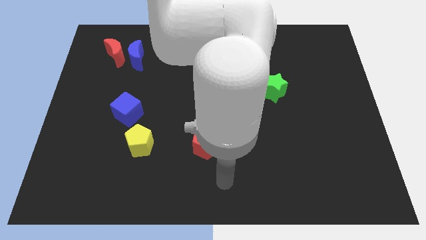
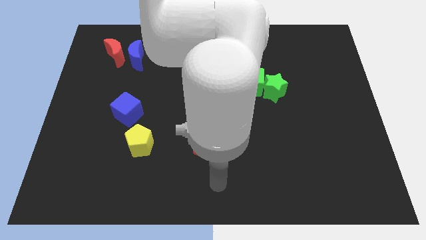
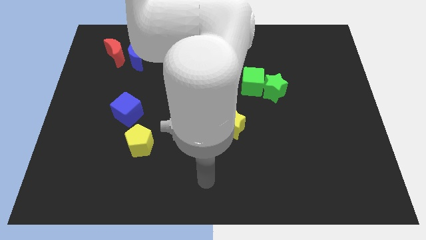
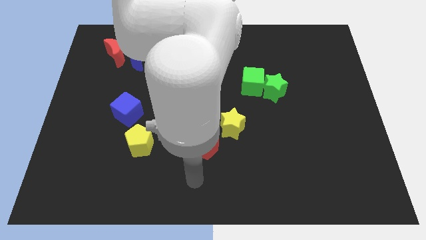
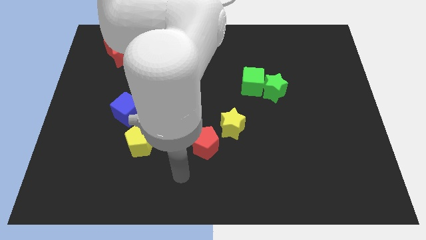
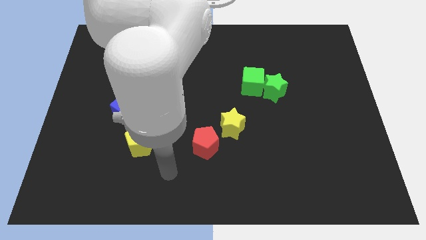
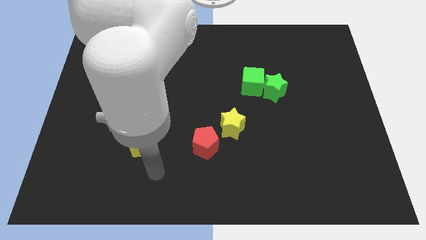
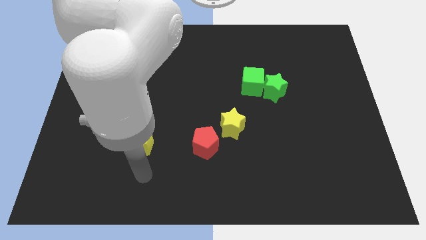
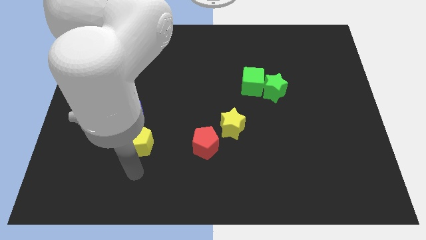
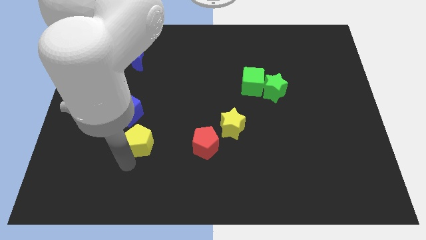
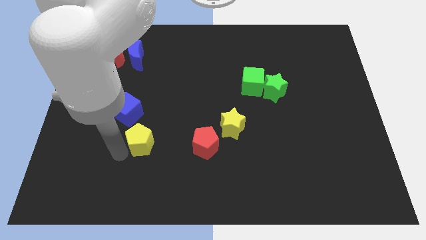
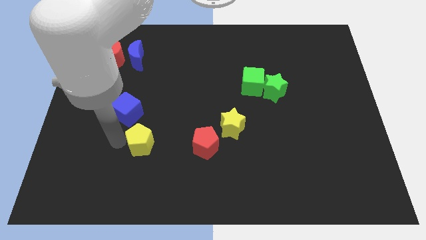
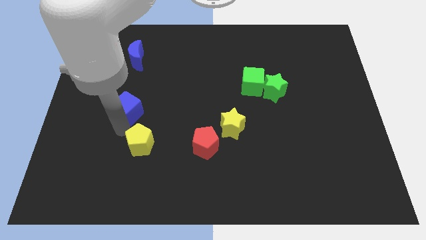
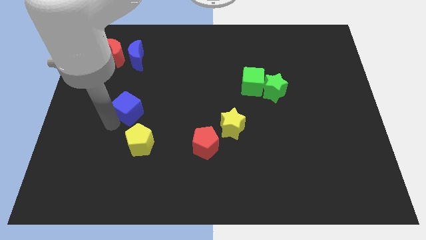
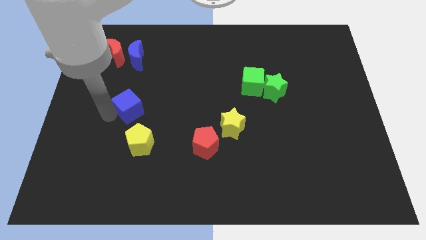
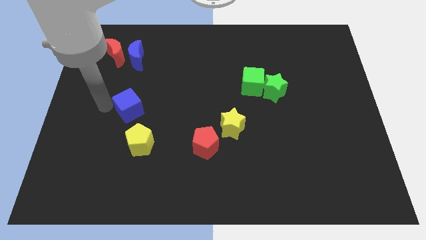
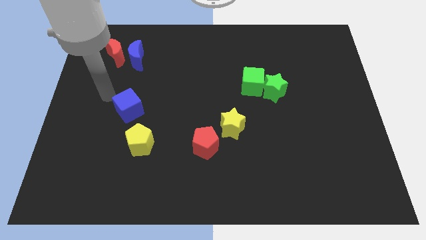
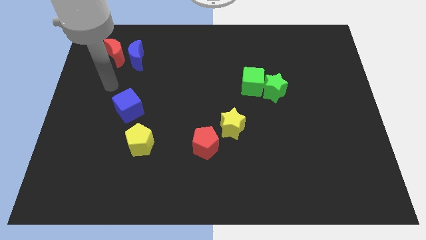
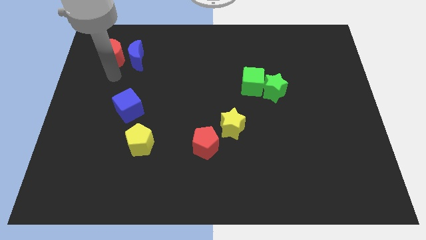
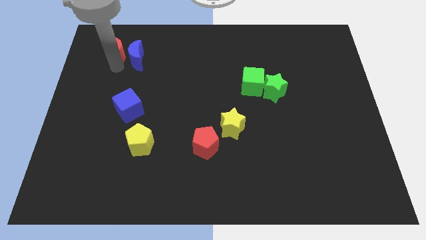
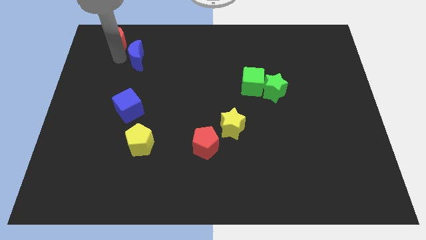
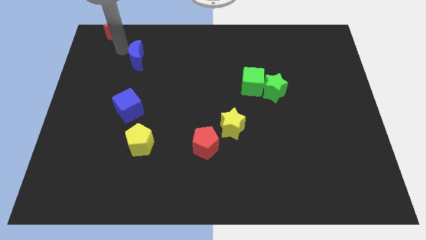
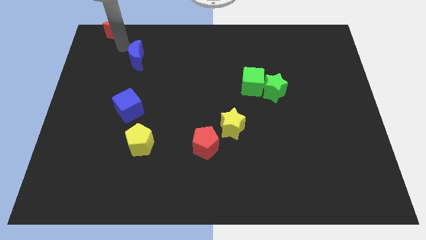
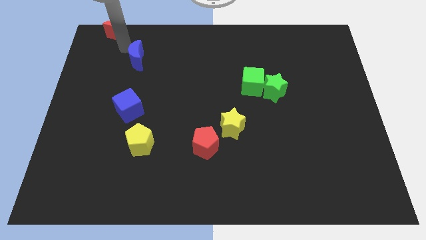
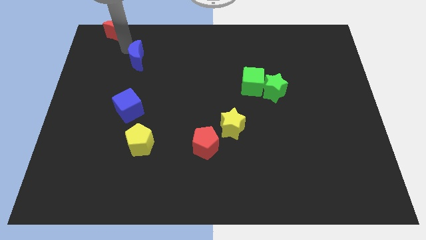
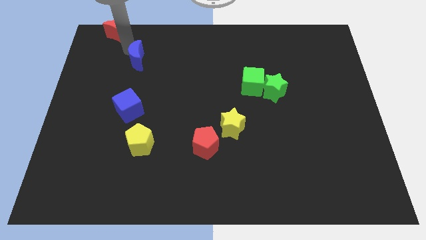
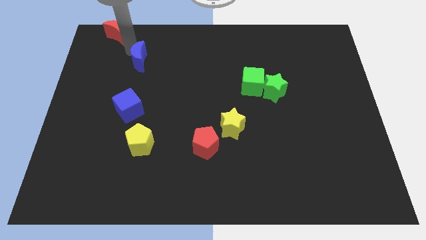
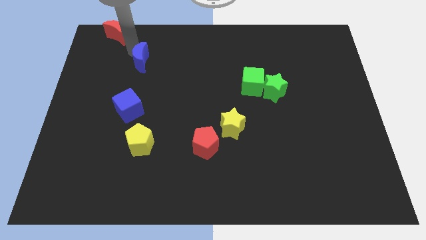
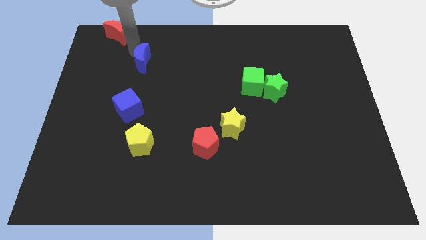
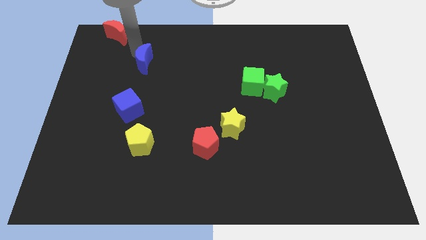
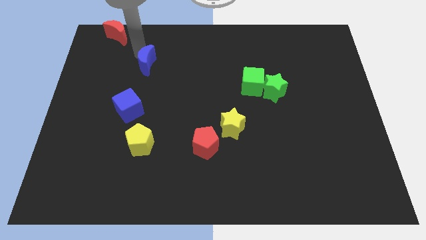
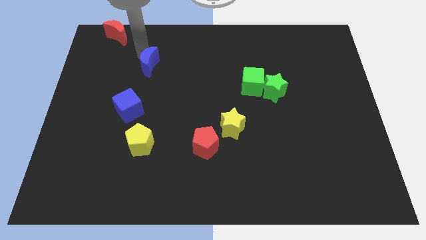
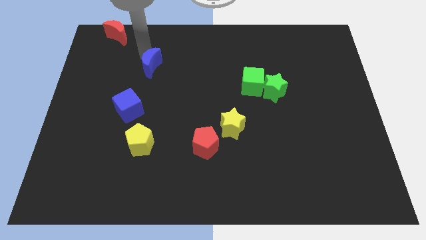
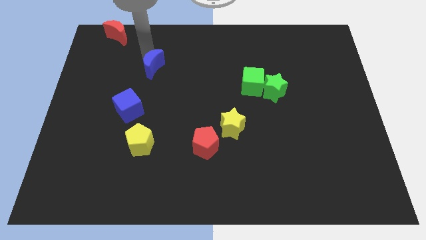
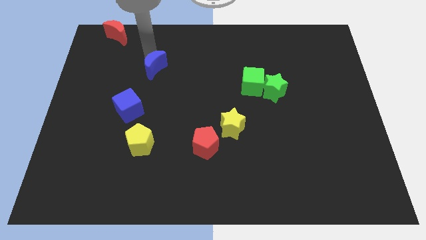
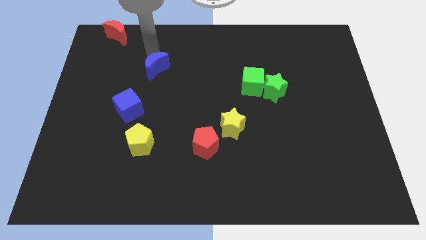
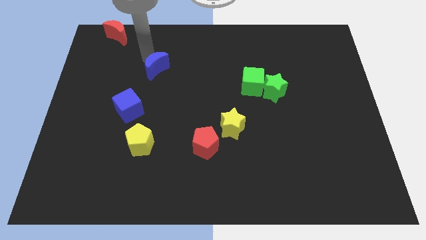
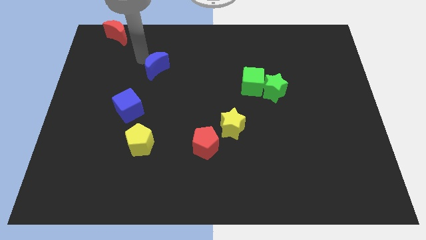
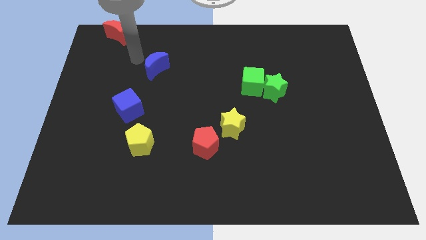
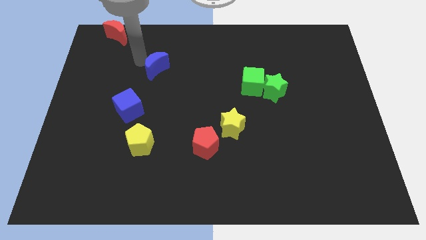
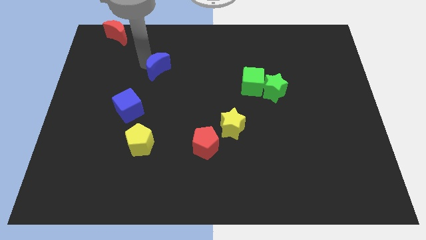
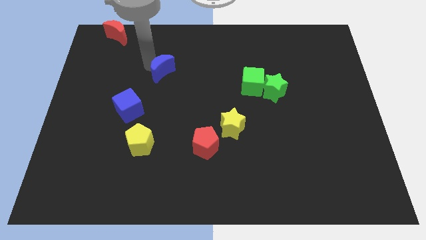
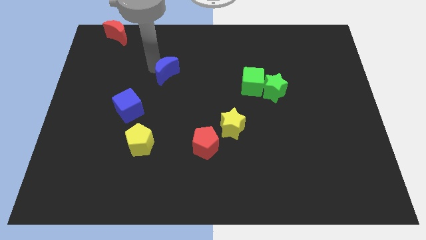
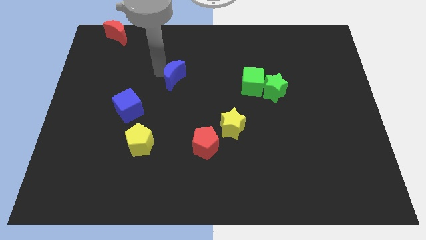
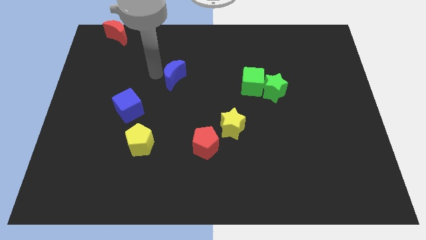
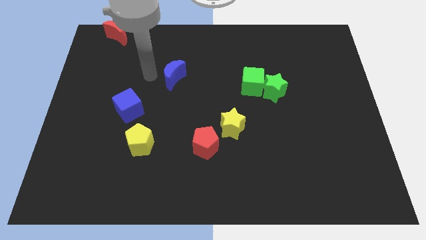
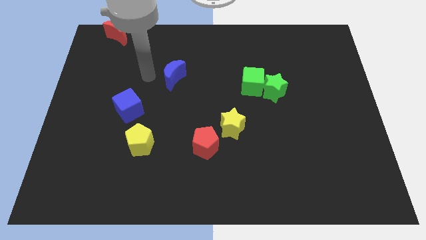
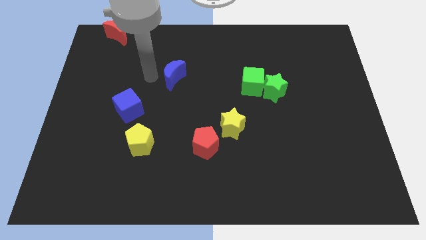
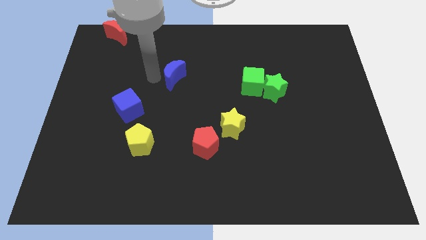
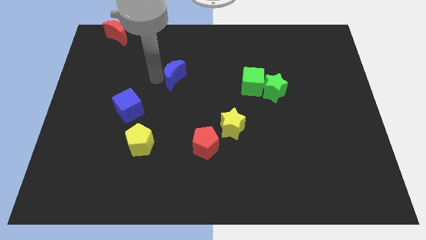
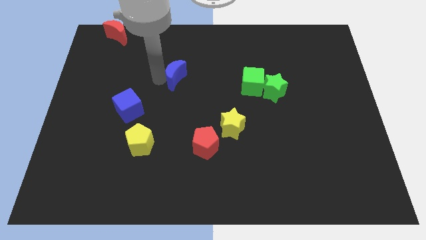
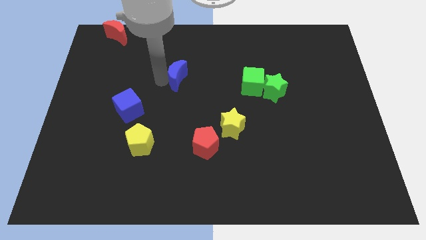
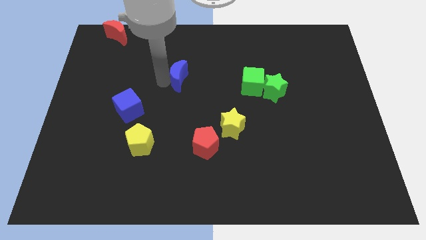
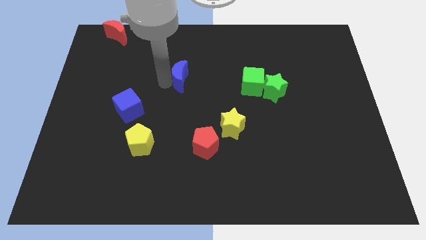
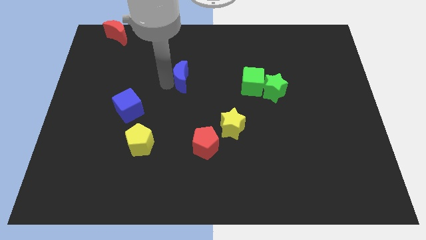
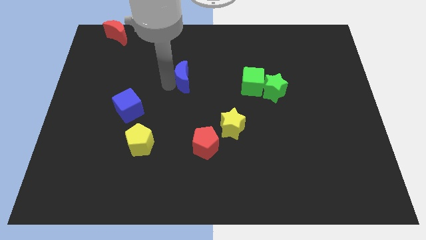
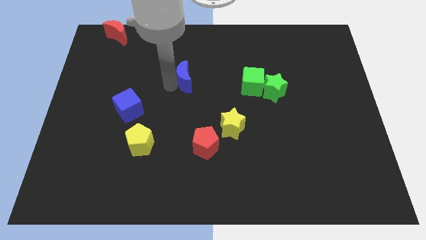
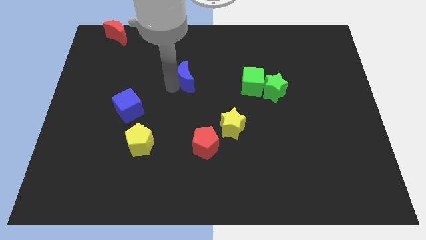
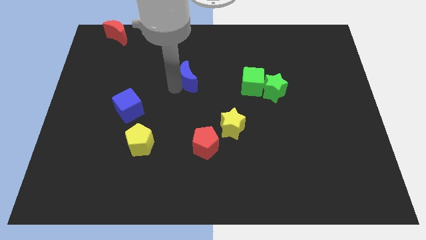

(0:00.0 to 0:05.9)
put the blue moon just left of the green cube
